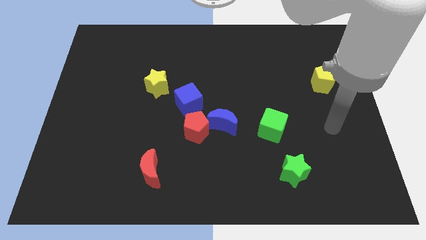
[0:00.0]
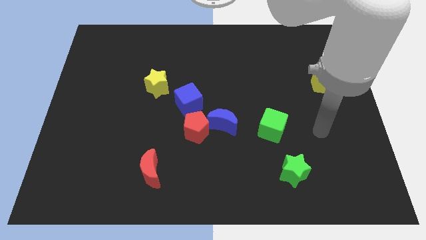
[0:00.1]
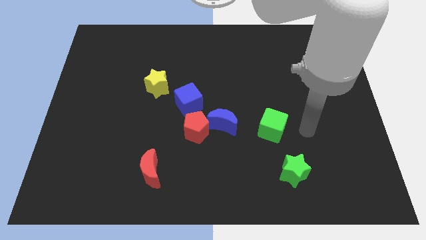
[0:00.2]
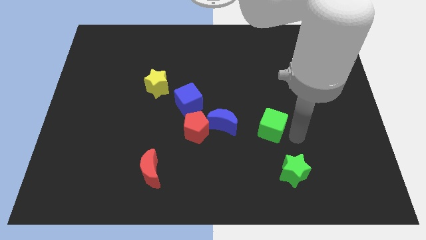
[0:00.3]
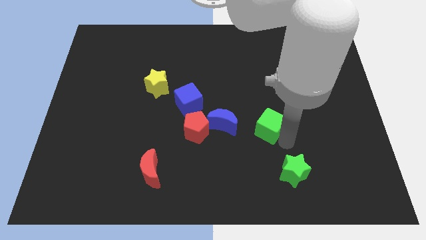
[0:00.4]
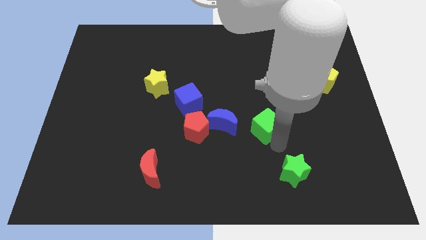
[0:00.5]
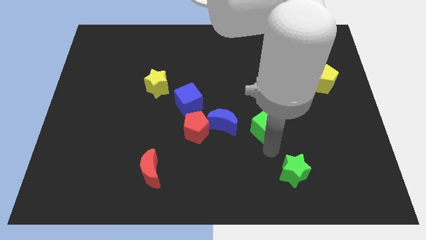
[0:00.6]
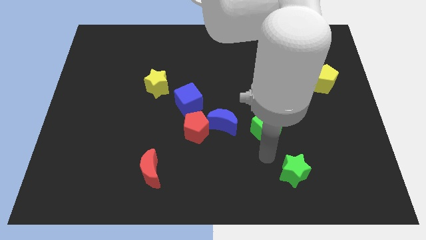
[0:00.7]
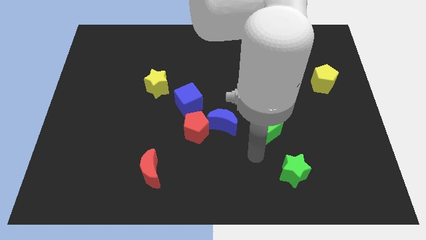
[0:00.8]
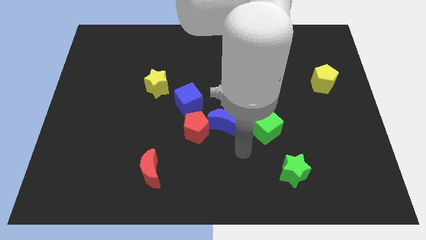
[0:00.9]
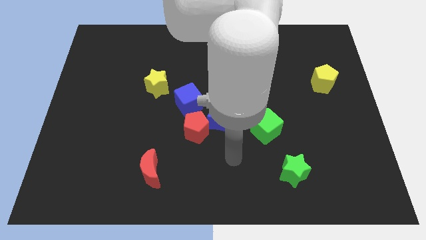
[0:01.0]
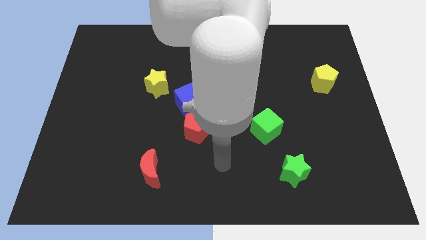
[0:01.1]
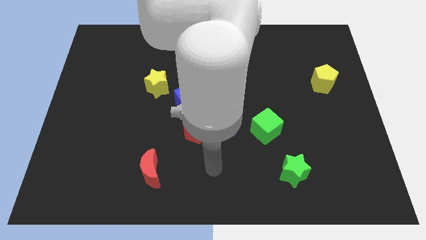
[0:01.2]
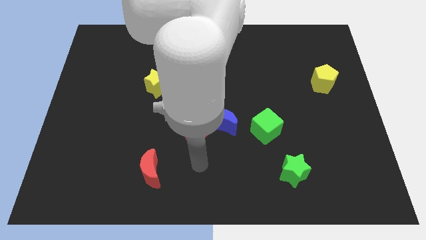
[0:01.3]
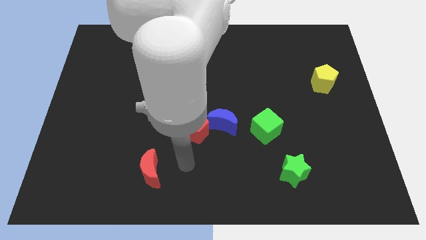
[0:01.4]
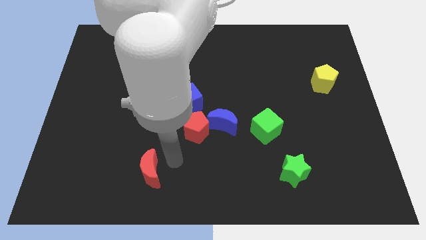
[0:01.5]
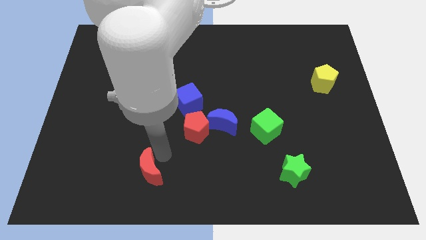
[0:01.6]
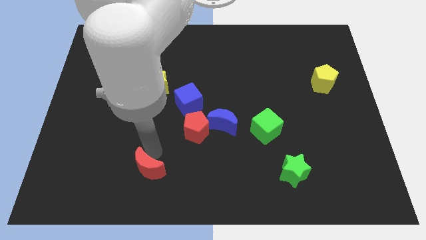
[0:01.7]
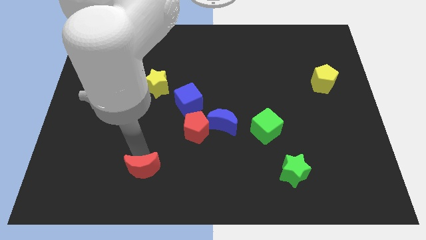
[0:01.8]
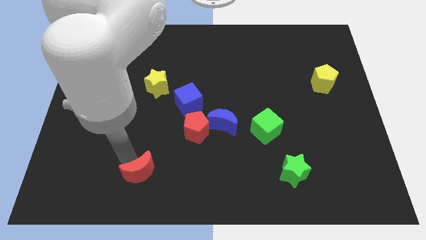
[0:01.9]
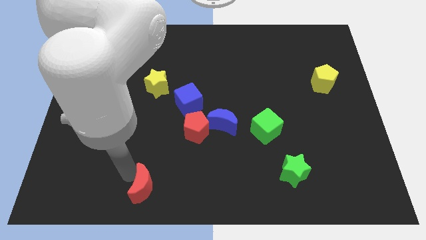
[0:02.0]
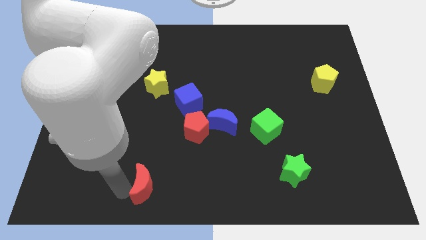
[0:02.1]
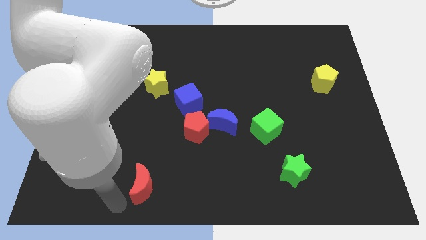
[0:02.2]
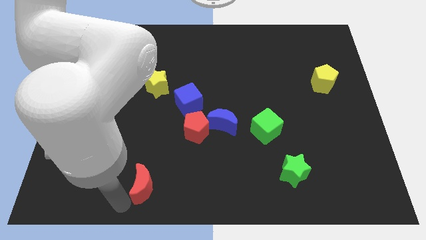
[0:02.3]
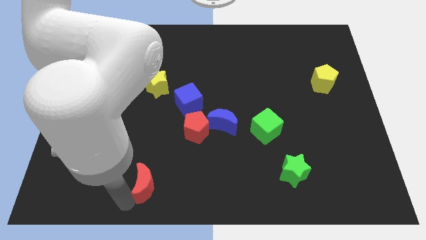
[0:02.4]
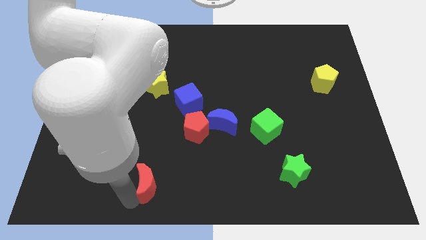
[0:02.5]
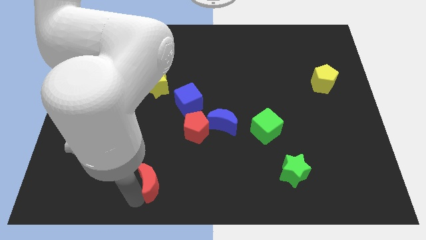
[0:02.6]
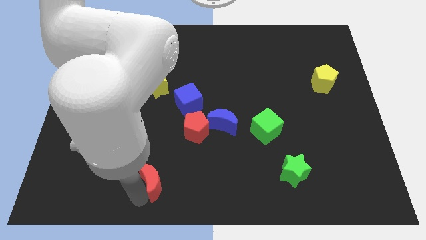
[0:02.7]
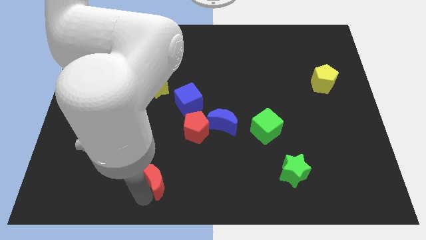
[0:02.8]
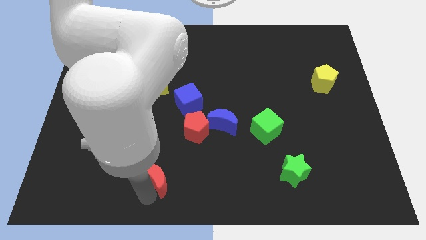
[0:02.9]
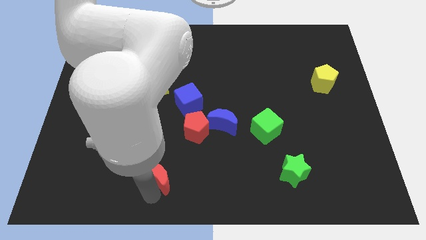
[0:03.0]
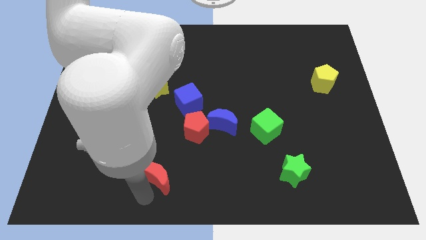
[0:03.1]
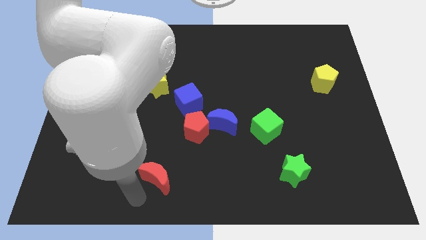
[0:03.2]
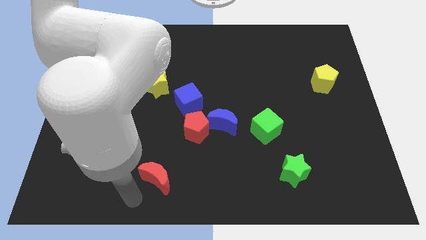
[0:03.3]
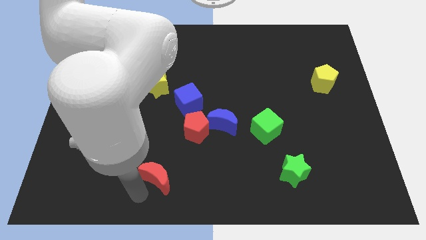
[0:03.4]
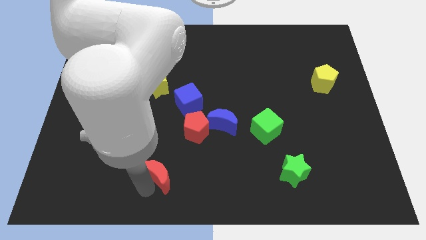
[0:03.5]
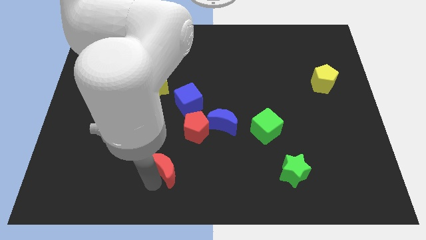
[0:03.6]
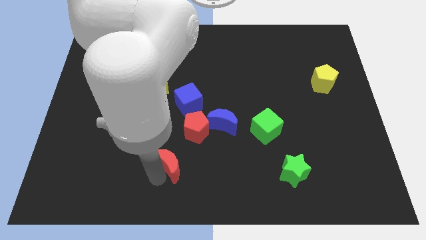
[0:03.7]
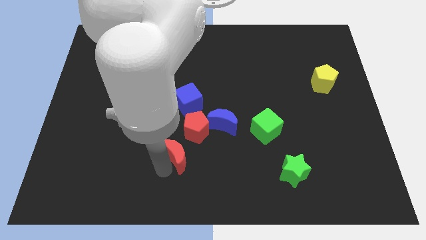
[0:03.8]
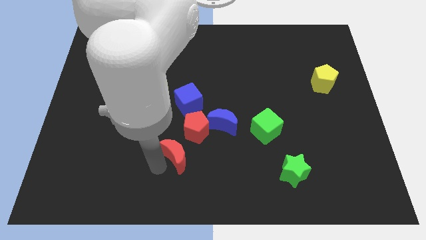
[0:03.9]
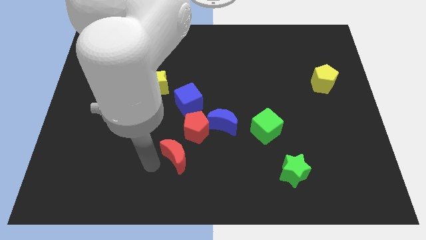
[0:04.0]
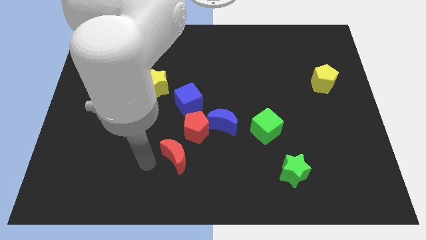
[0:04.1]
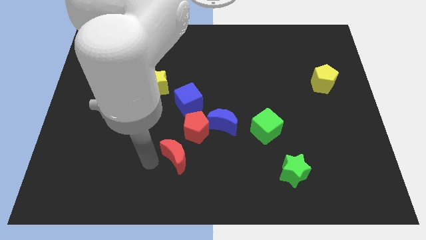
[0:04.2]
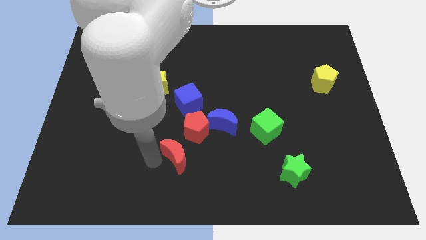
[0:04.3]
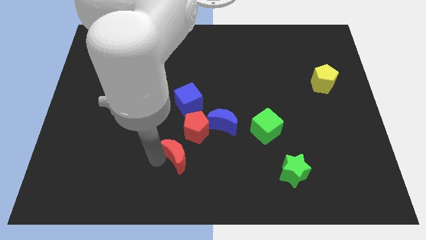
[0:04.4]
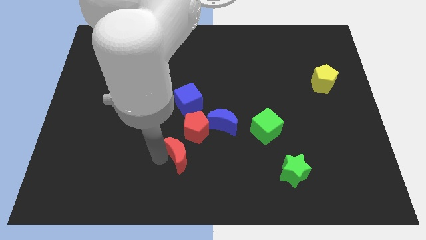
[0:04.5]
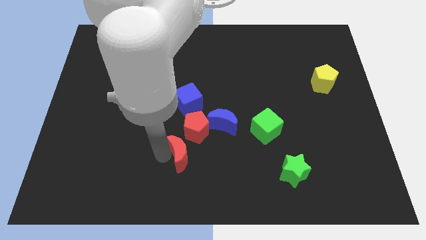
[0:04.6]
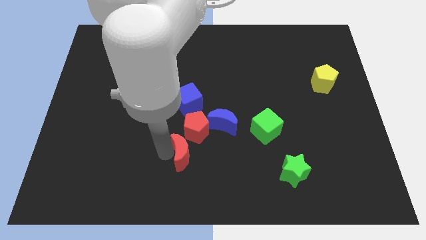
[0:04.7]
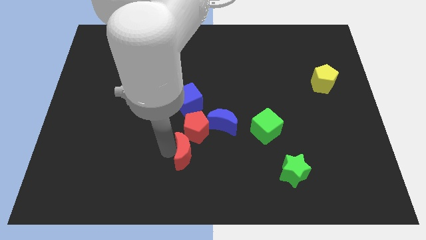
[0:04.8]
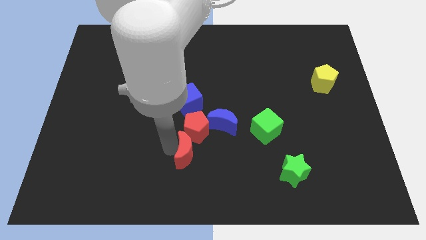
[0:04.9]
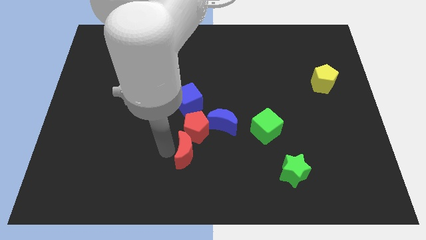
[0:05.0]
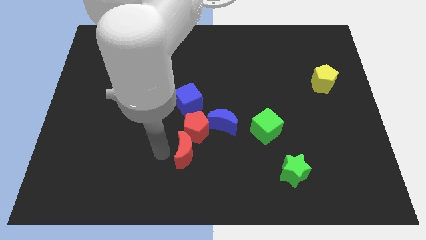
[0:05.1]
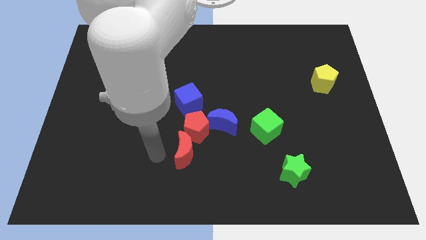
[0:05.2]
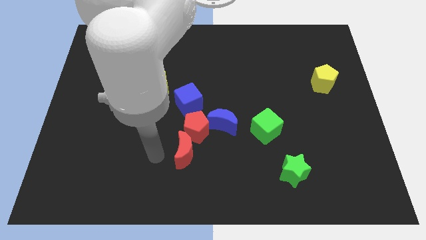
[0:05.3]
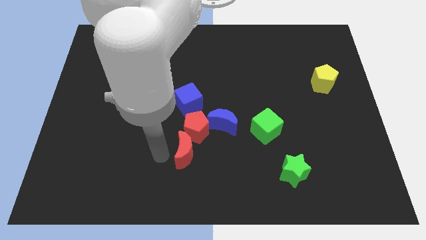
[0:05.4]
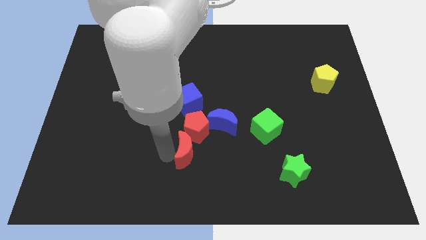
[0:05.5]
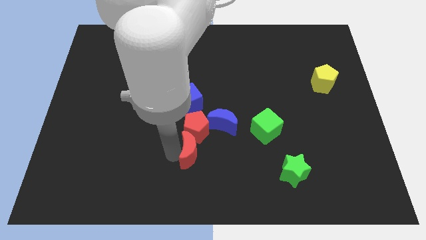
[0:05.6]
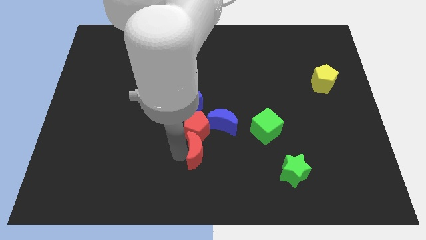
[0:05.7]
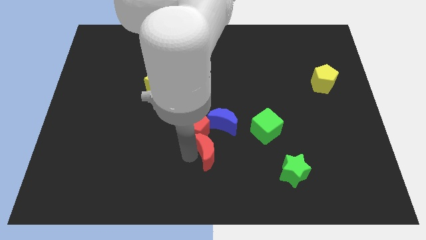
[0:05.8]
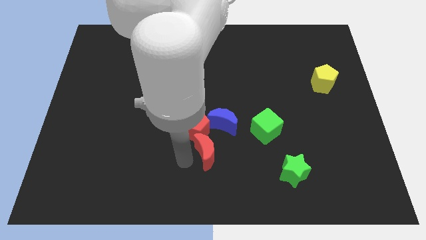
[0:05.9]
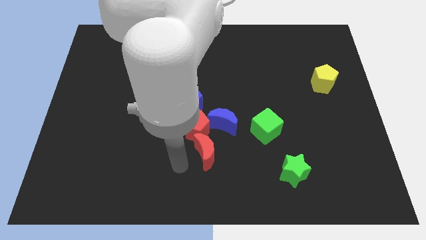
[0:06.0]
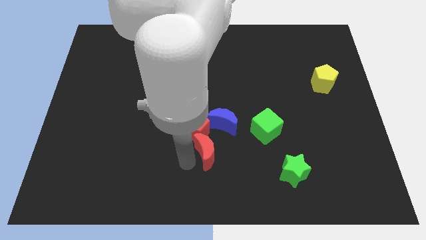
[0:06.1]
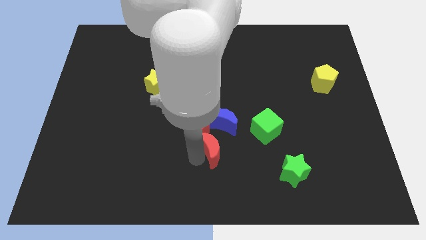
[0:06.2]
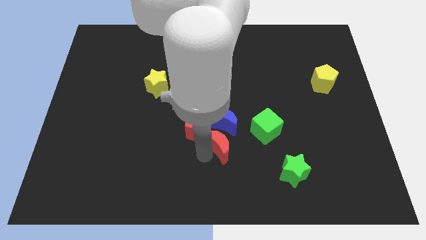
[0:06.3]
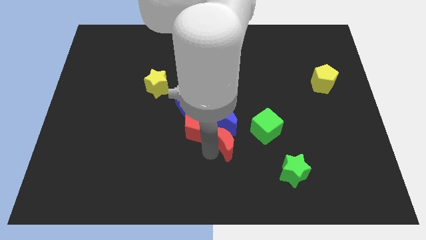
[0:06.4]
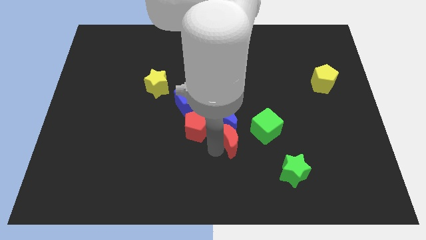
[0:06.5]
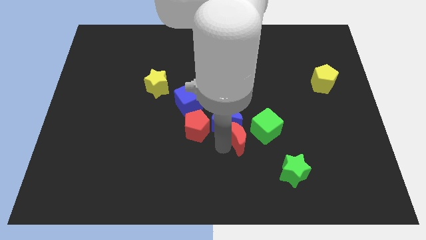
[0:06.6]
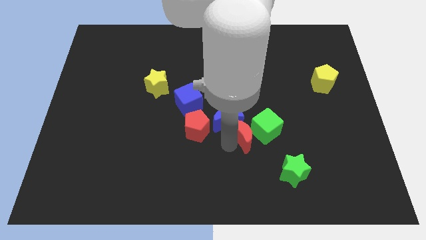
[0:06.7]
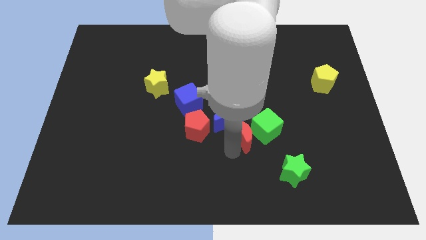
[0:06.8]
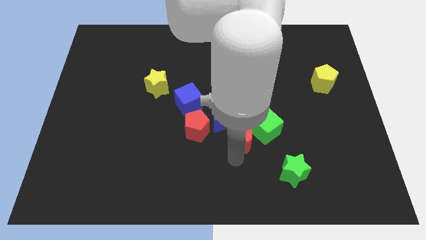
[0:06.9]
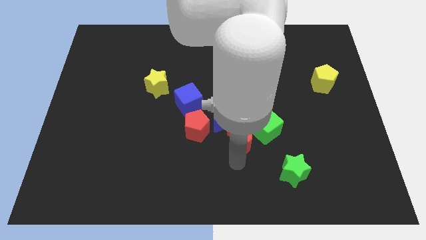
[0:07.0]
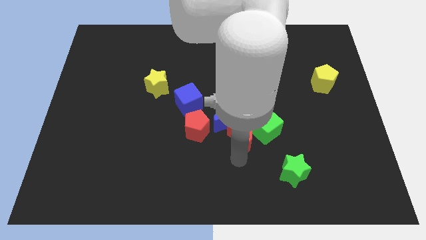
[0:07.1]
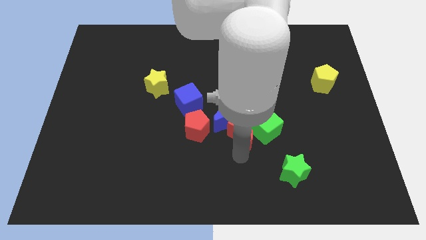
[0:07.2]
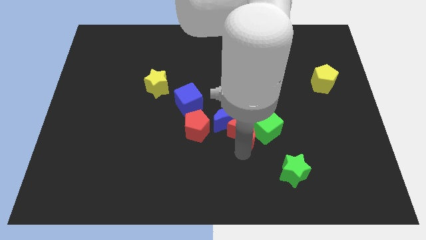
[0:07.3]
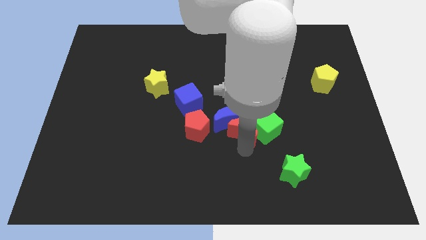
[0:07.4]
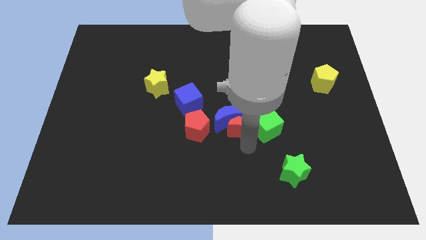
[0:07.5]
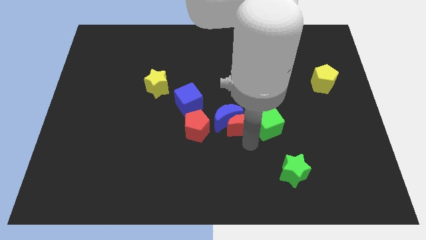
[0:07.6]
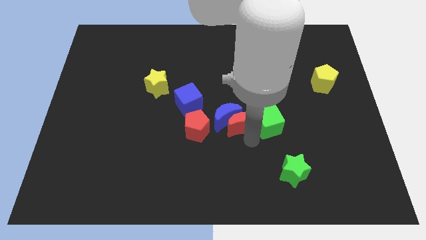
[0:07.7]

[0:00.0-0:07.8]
move the red moon to the top right side of the blue moon
